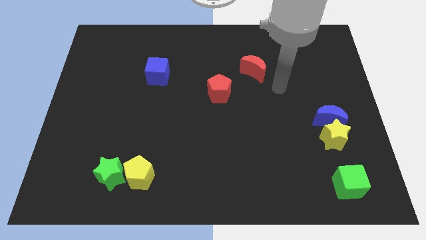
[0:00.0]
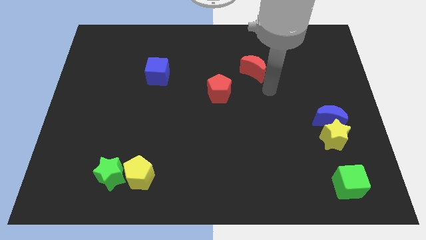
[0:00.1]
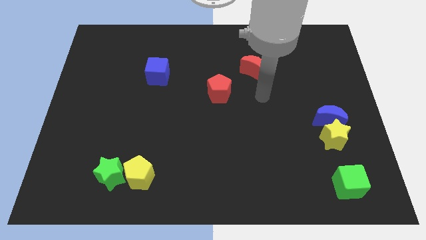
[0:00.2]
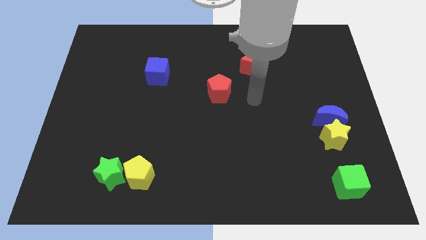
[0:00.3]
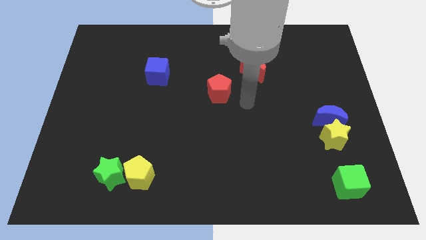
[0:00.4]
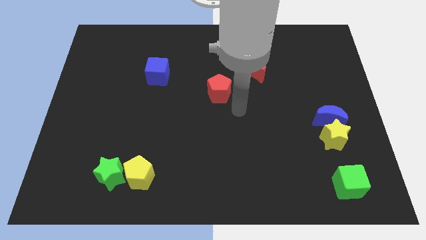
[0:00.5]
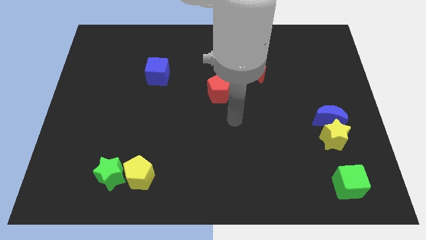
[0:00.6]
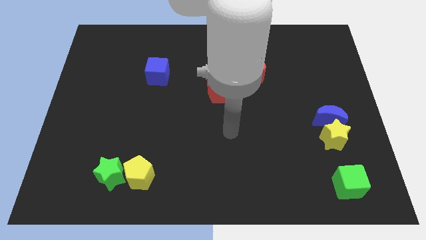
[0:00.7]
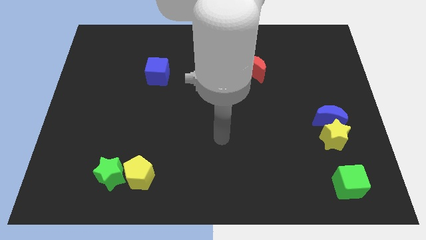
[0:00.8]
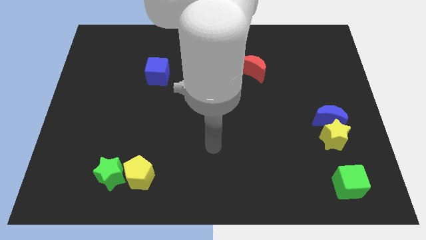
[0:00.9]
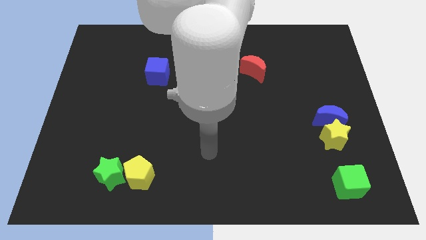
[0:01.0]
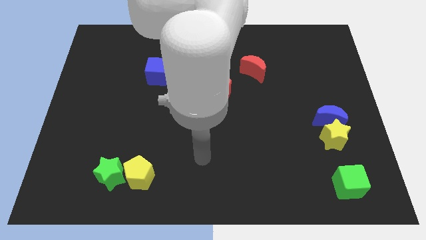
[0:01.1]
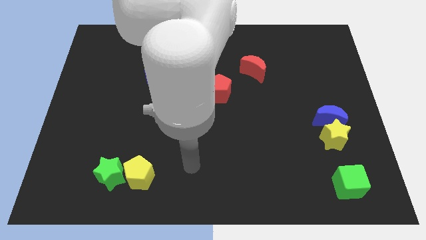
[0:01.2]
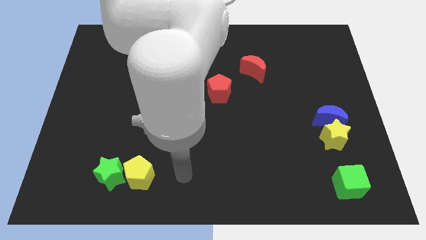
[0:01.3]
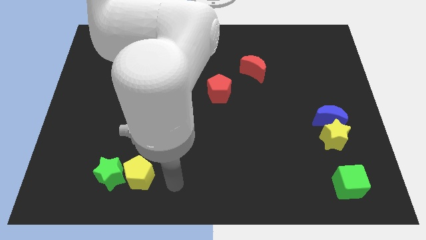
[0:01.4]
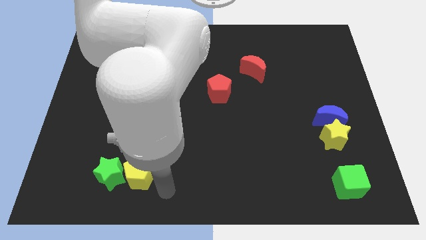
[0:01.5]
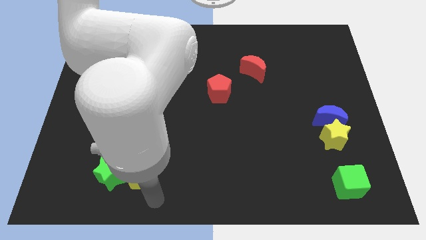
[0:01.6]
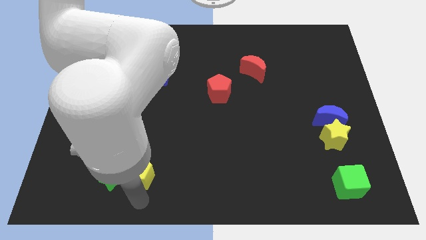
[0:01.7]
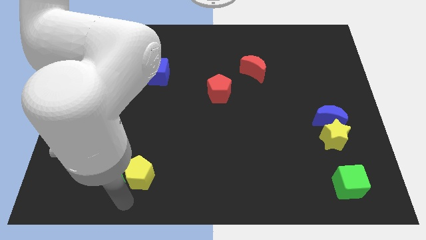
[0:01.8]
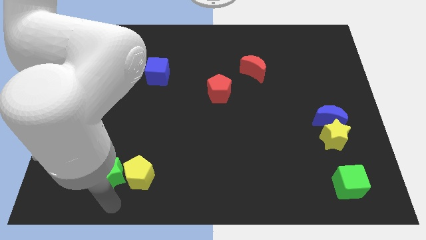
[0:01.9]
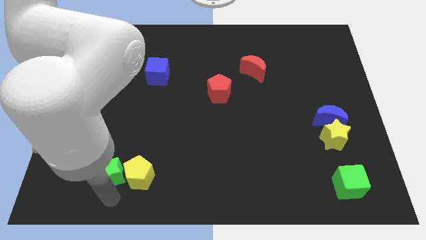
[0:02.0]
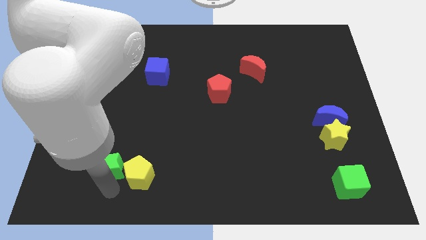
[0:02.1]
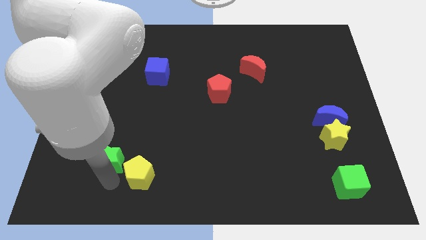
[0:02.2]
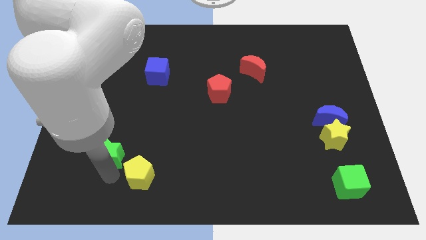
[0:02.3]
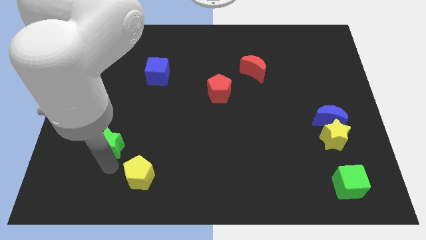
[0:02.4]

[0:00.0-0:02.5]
slide the green star a bit up

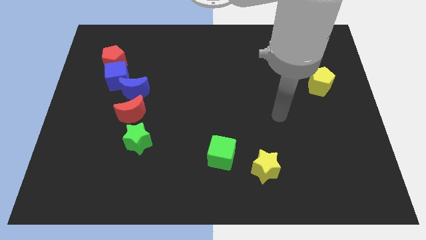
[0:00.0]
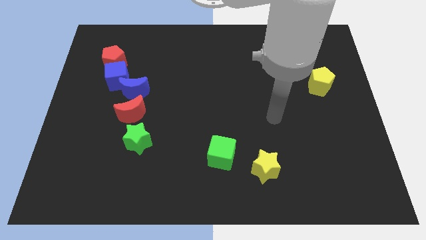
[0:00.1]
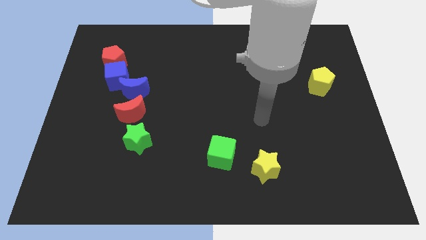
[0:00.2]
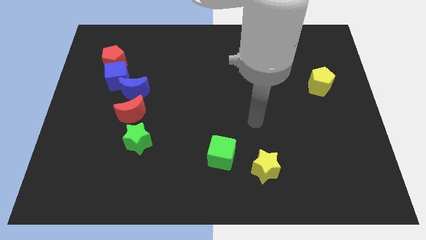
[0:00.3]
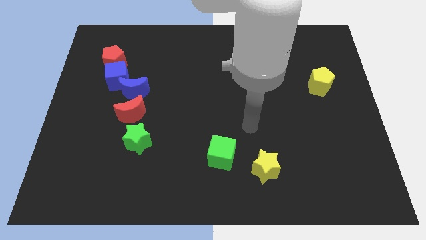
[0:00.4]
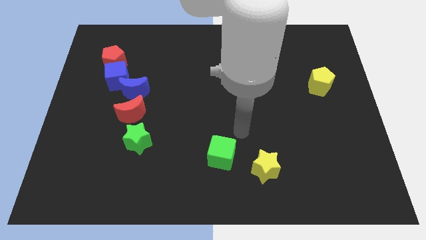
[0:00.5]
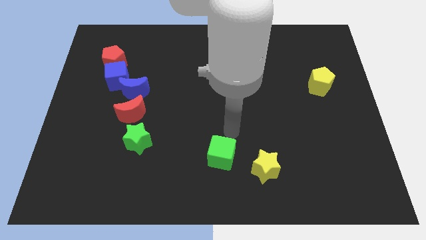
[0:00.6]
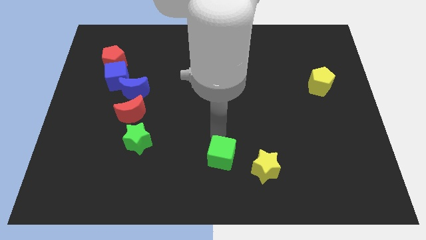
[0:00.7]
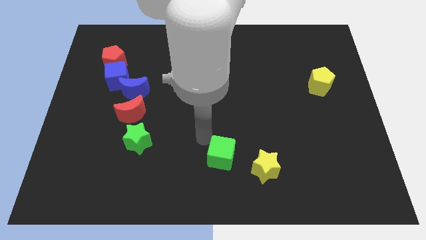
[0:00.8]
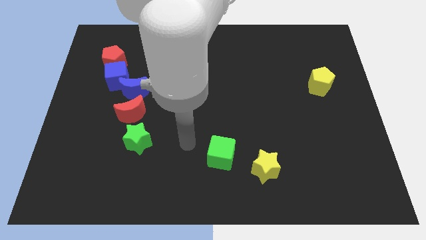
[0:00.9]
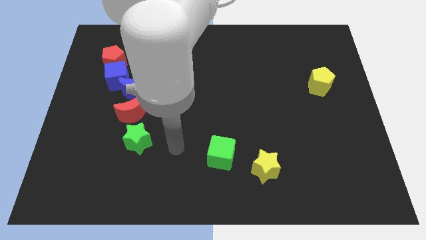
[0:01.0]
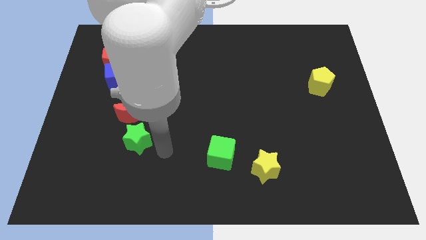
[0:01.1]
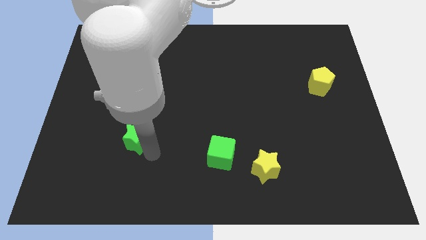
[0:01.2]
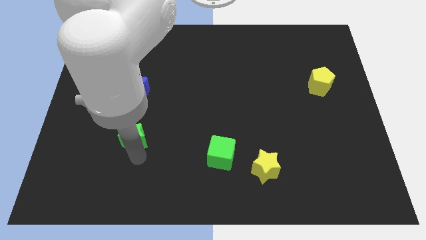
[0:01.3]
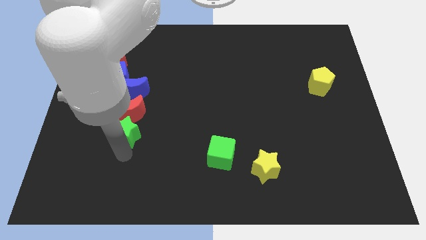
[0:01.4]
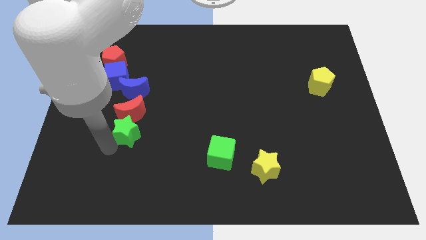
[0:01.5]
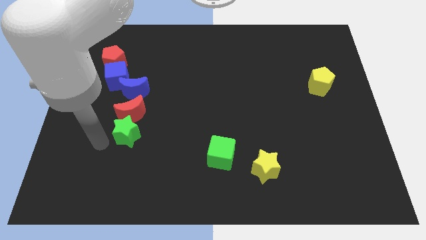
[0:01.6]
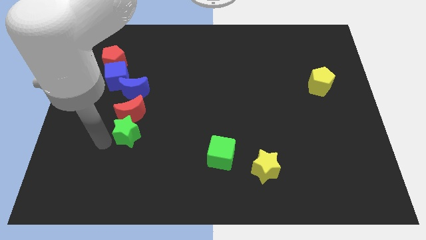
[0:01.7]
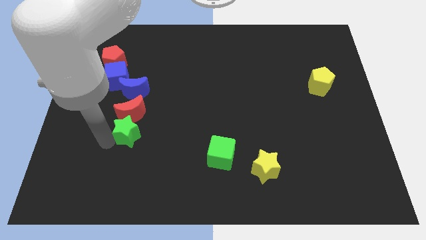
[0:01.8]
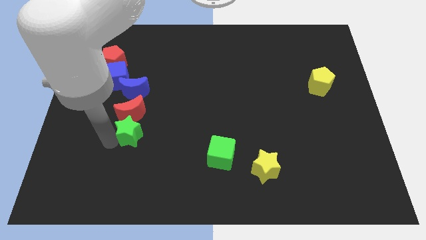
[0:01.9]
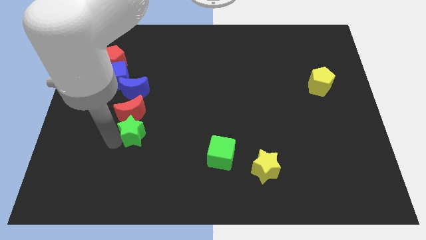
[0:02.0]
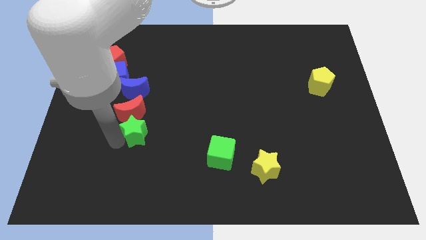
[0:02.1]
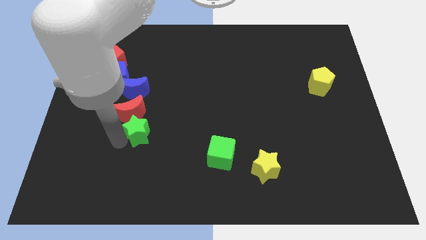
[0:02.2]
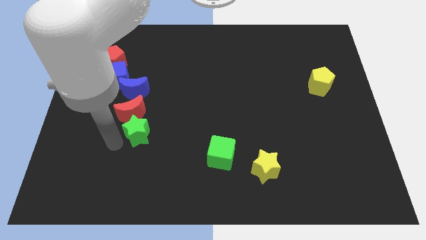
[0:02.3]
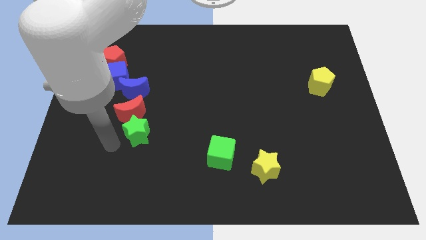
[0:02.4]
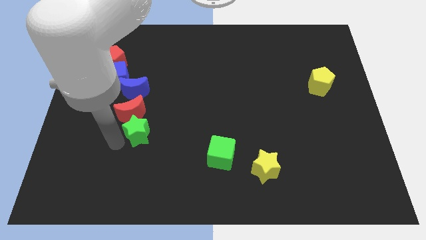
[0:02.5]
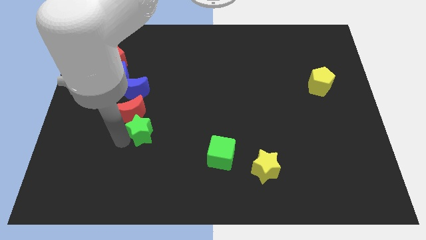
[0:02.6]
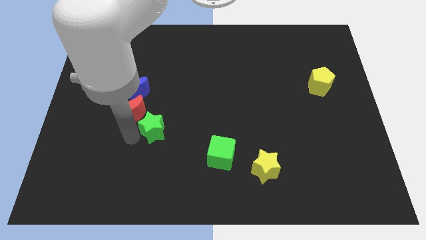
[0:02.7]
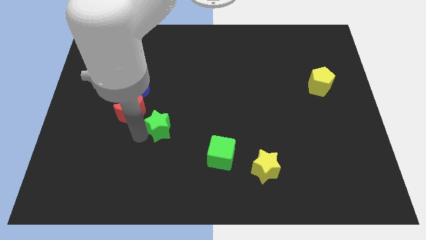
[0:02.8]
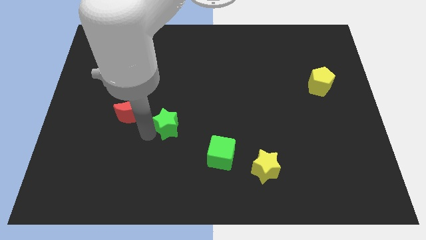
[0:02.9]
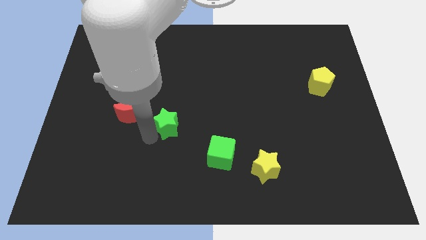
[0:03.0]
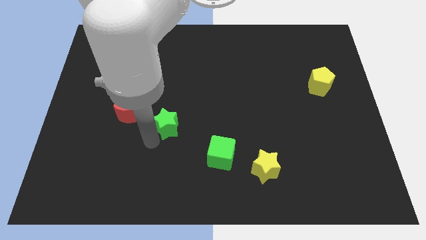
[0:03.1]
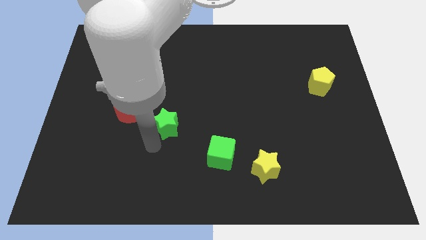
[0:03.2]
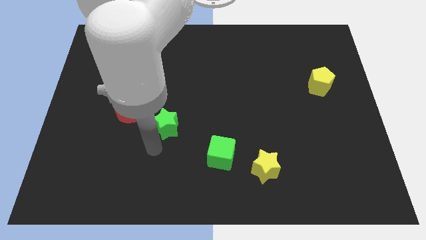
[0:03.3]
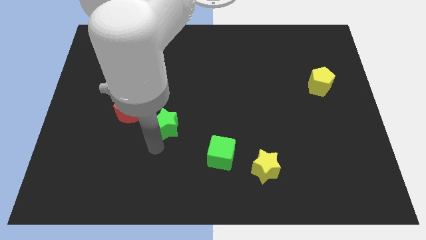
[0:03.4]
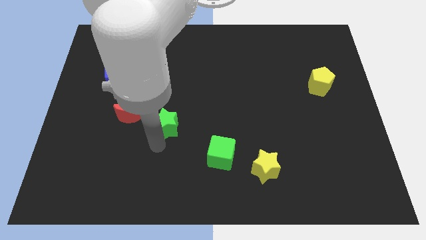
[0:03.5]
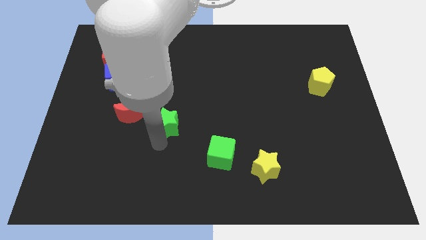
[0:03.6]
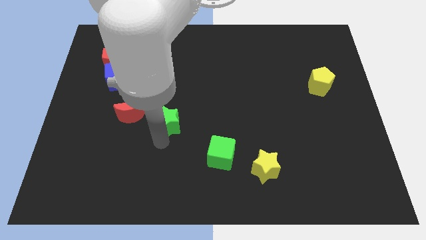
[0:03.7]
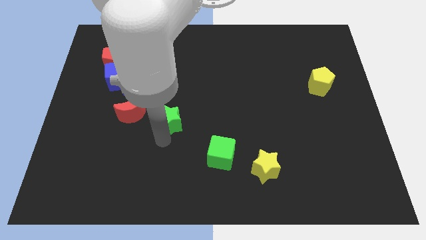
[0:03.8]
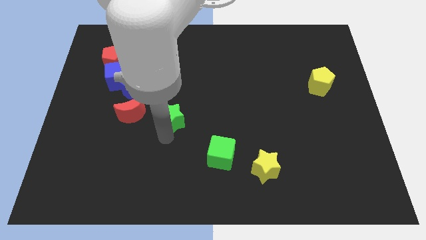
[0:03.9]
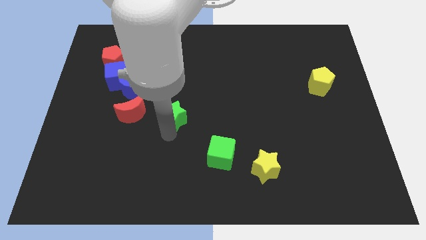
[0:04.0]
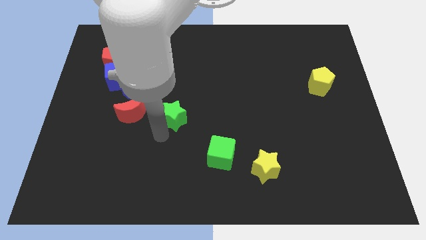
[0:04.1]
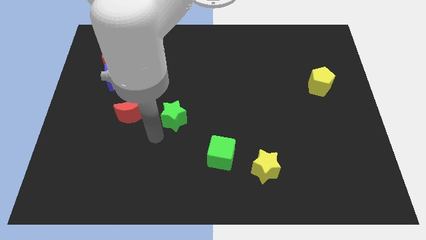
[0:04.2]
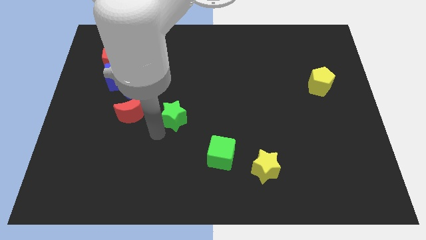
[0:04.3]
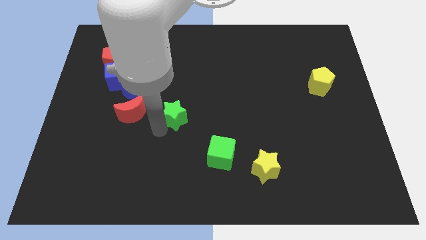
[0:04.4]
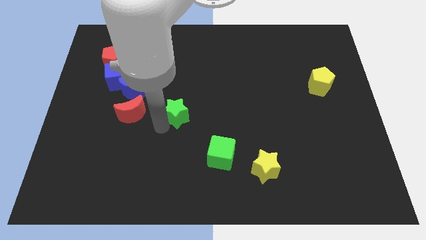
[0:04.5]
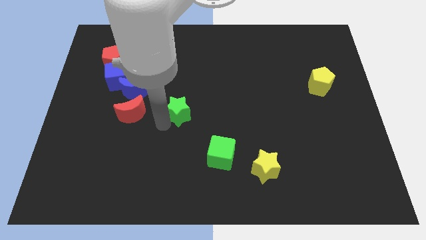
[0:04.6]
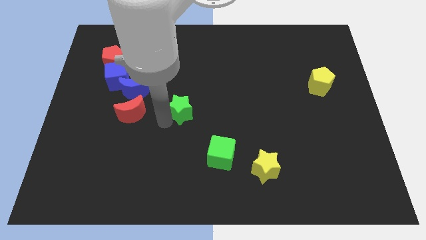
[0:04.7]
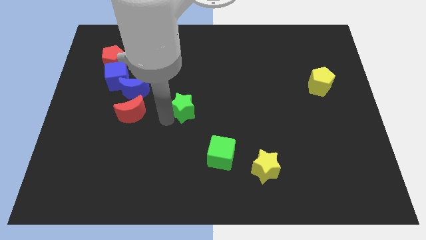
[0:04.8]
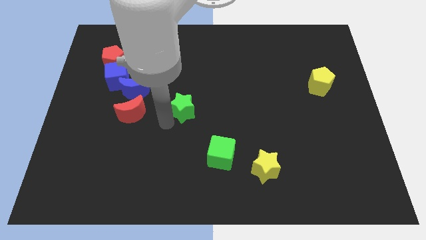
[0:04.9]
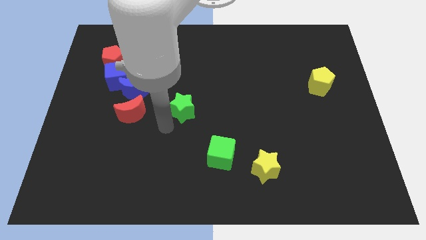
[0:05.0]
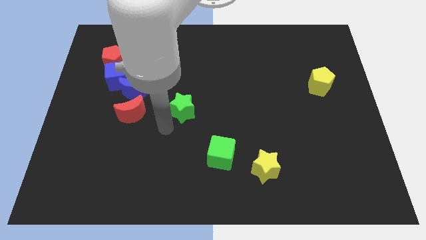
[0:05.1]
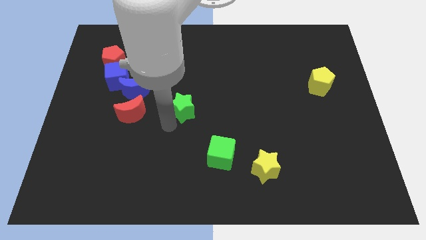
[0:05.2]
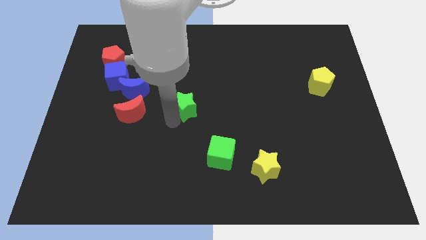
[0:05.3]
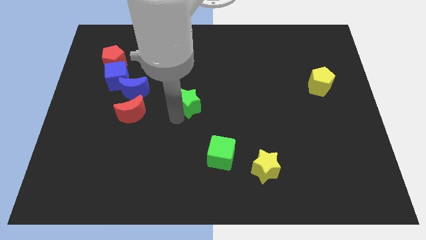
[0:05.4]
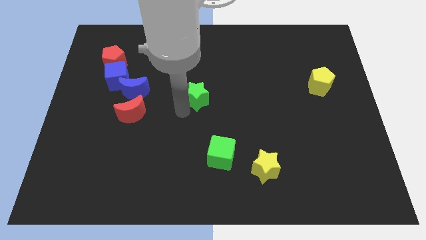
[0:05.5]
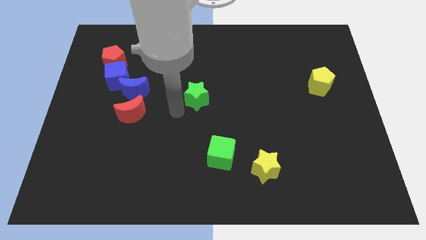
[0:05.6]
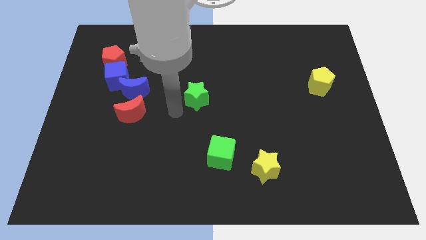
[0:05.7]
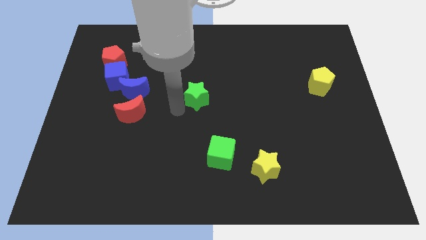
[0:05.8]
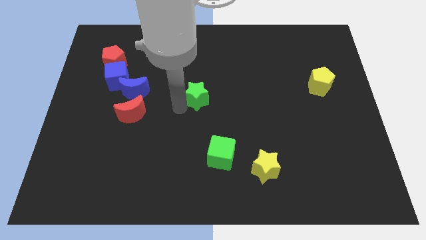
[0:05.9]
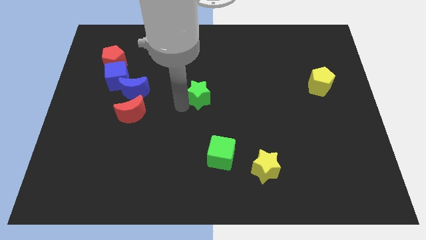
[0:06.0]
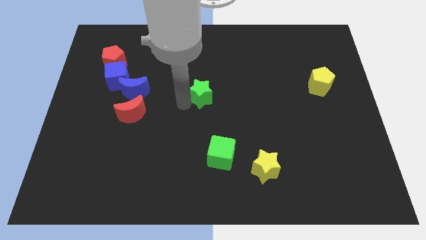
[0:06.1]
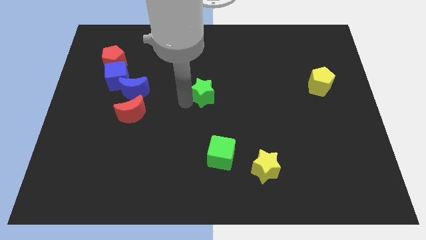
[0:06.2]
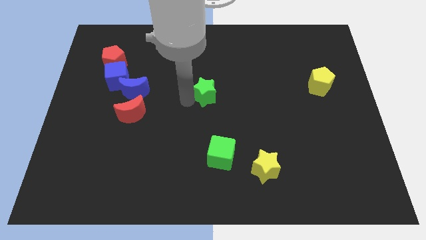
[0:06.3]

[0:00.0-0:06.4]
push the green star up and right
